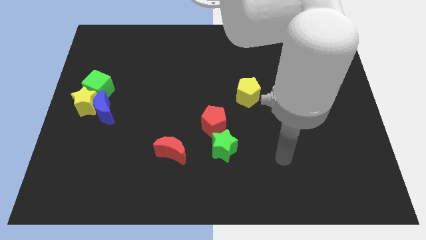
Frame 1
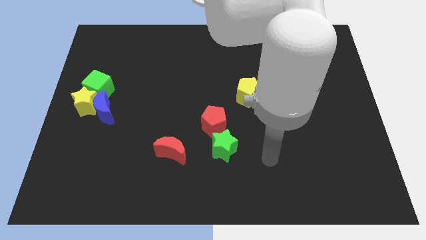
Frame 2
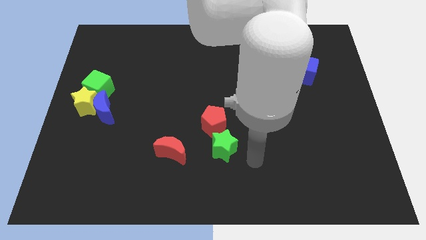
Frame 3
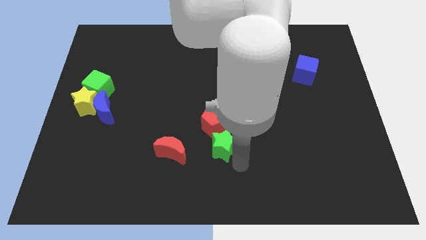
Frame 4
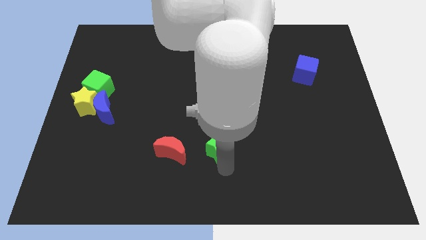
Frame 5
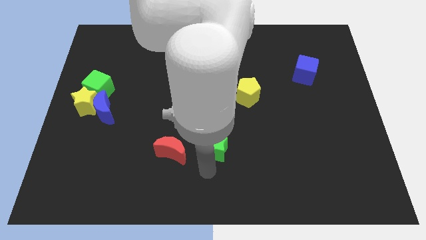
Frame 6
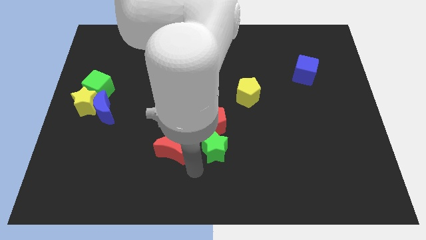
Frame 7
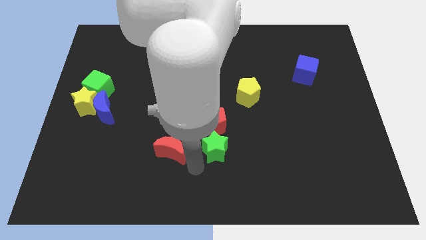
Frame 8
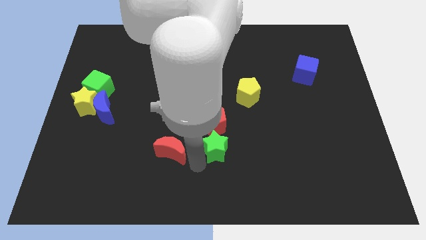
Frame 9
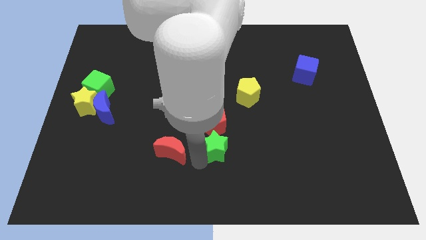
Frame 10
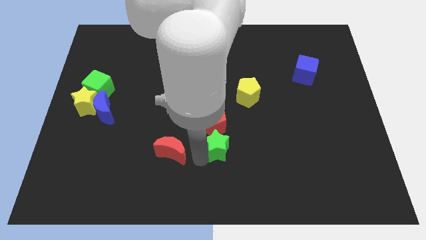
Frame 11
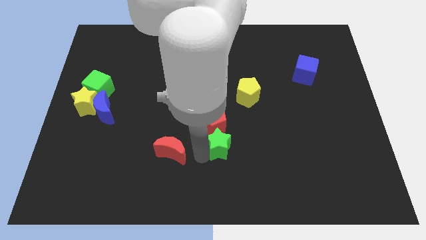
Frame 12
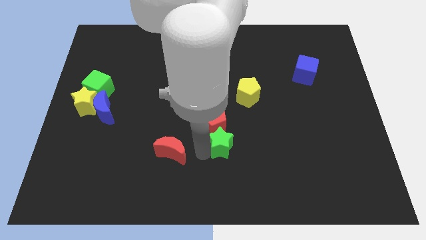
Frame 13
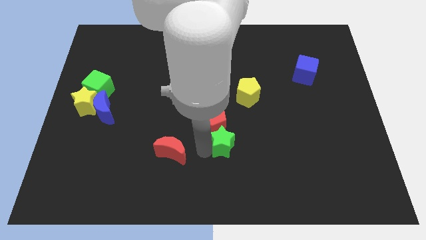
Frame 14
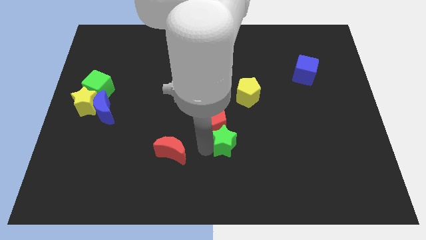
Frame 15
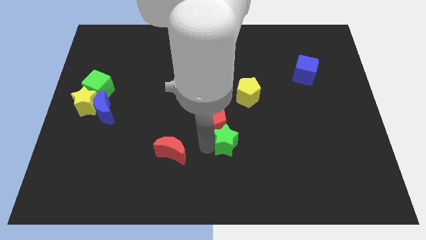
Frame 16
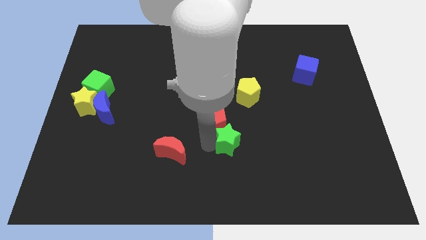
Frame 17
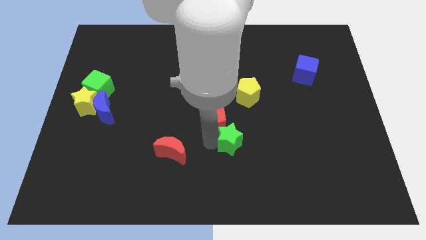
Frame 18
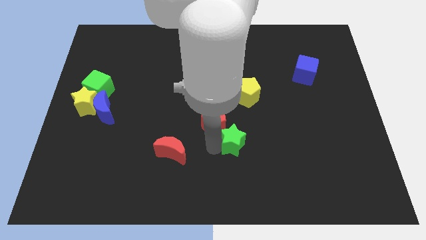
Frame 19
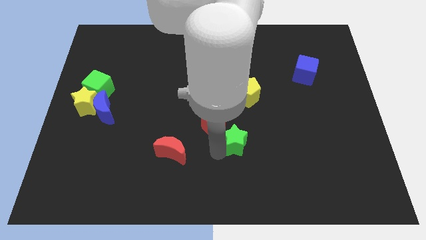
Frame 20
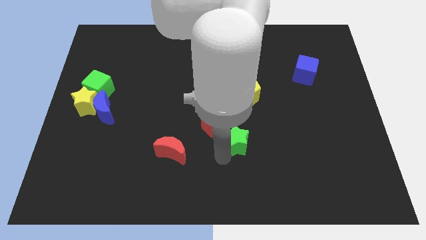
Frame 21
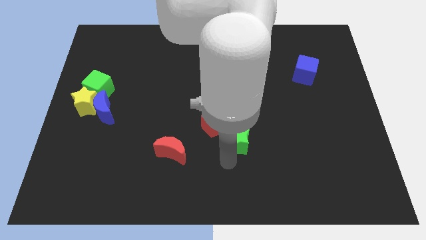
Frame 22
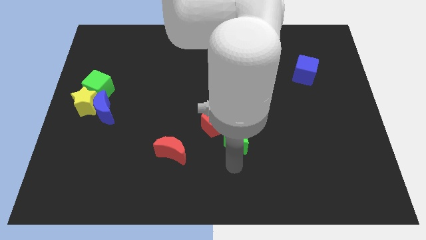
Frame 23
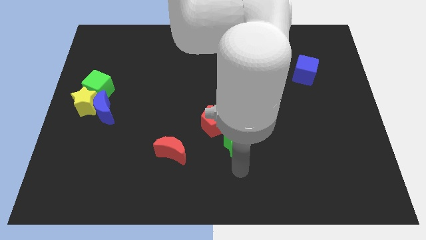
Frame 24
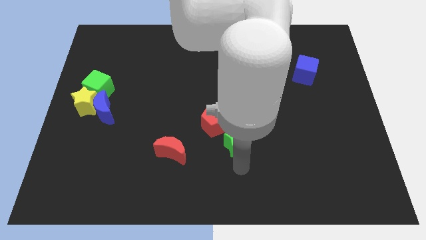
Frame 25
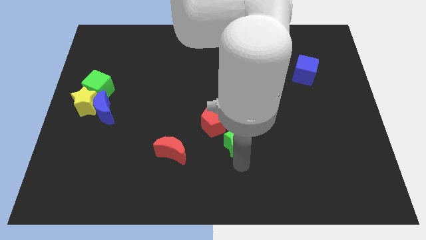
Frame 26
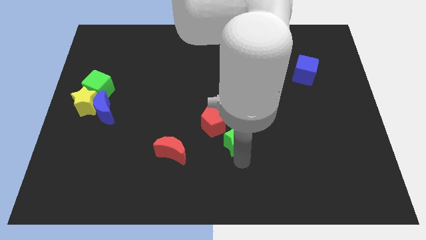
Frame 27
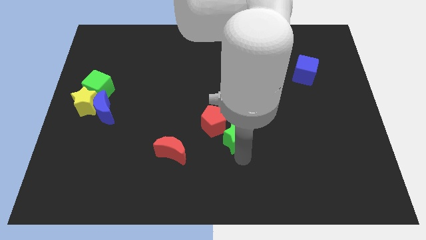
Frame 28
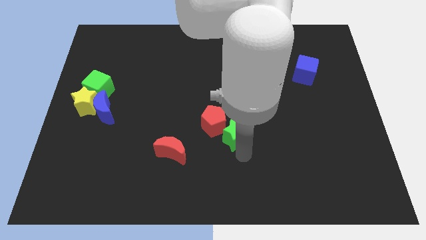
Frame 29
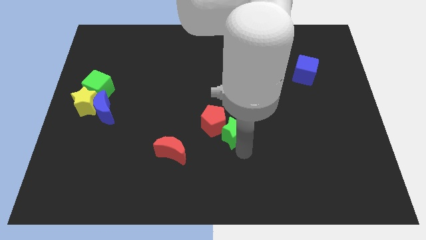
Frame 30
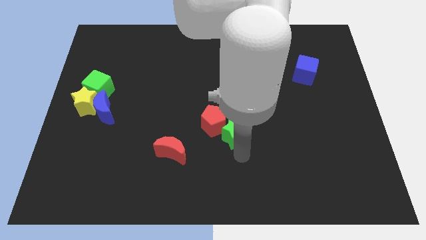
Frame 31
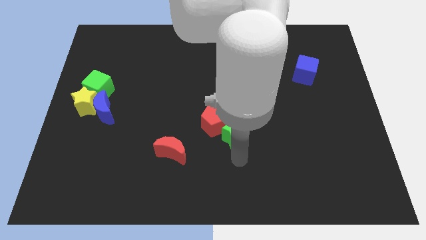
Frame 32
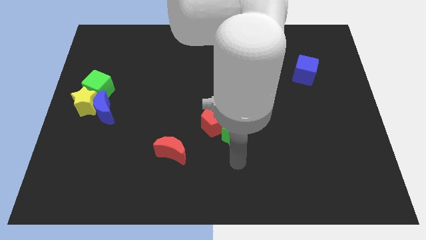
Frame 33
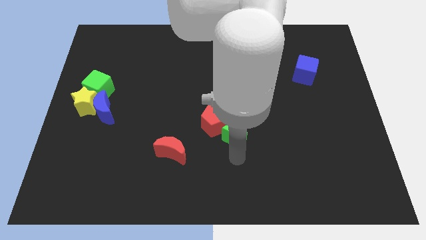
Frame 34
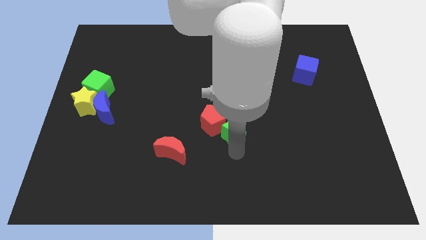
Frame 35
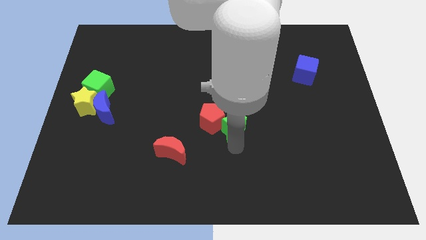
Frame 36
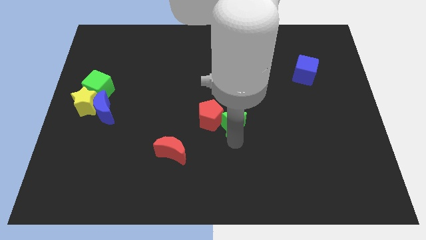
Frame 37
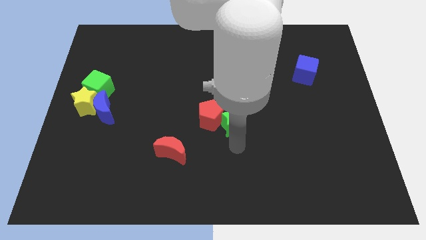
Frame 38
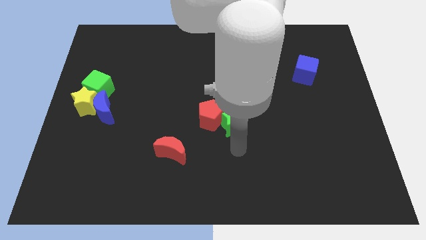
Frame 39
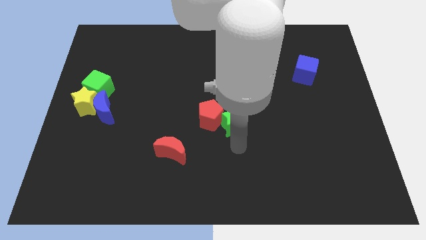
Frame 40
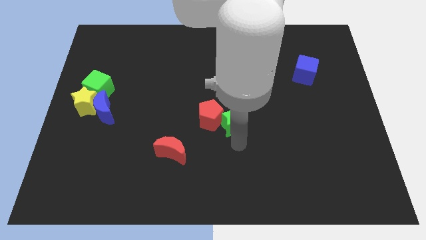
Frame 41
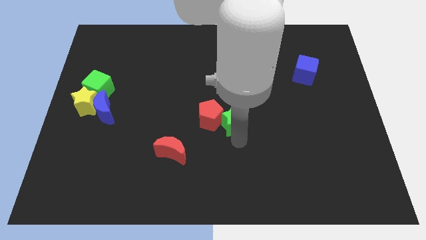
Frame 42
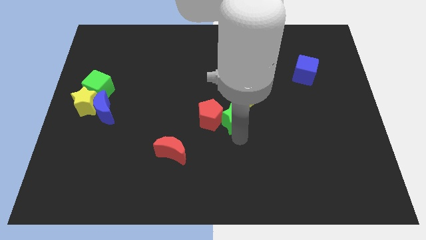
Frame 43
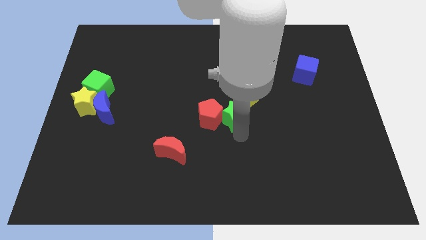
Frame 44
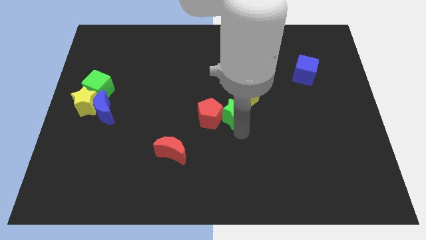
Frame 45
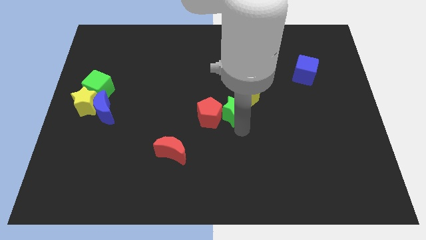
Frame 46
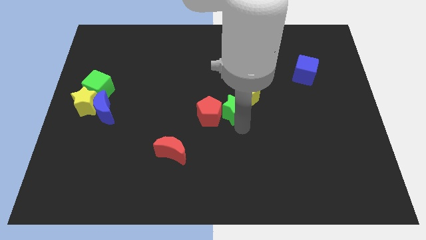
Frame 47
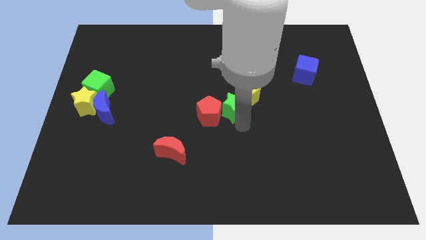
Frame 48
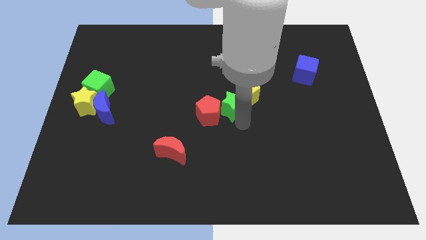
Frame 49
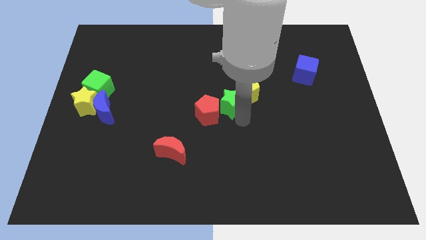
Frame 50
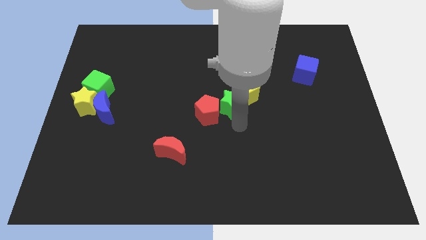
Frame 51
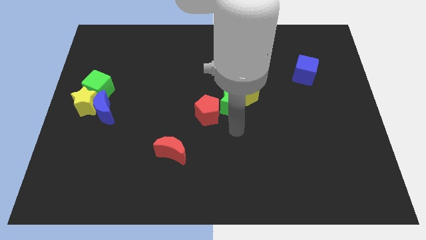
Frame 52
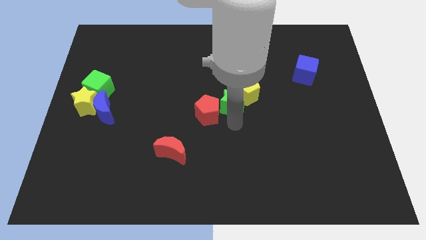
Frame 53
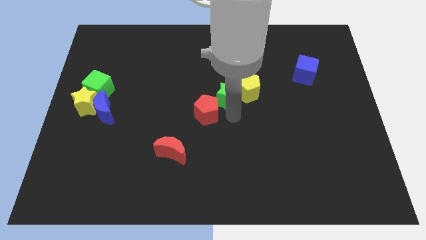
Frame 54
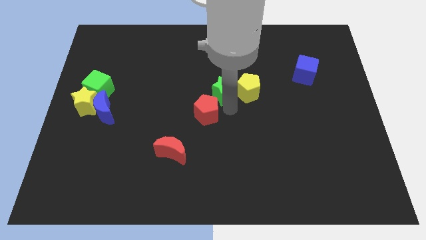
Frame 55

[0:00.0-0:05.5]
push the green star diagonally up and to the left of the yellow pentagon

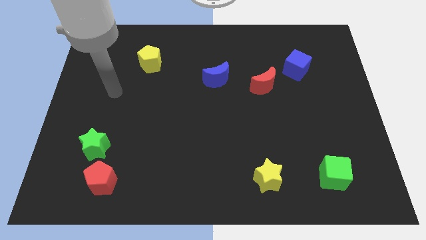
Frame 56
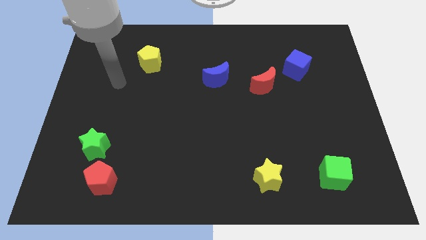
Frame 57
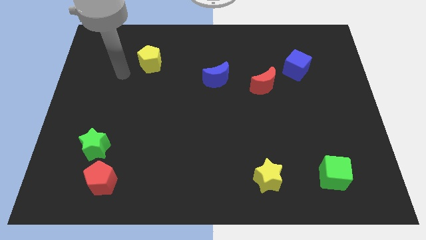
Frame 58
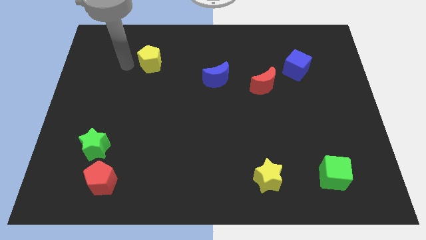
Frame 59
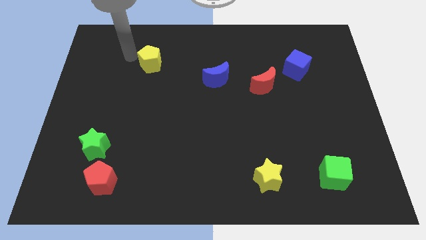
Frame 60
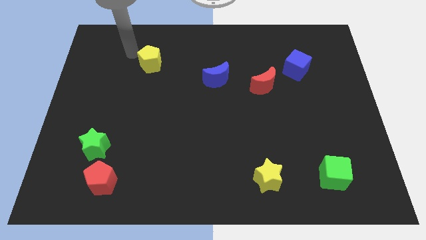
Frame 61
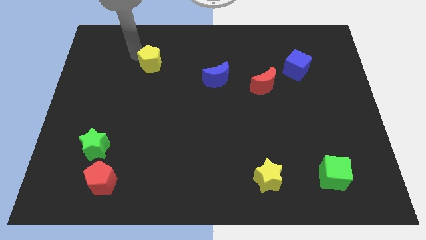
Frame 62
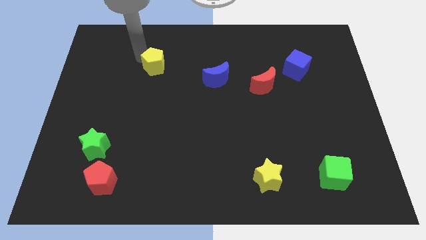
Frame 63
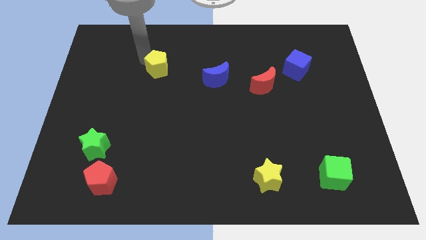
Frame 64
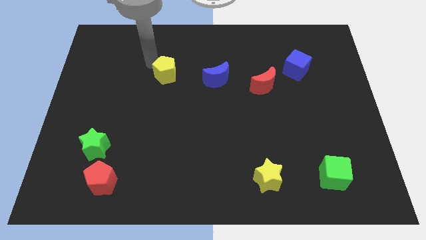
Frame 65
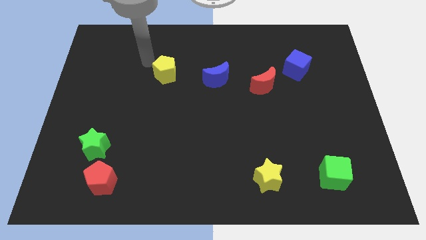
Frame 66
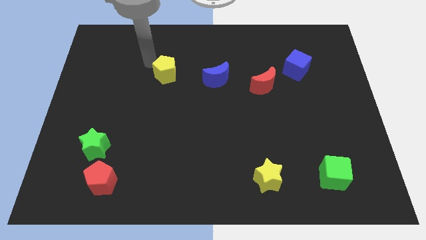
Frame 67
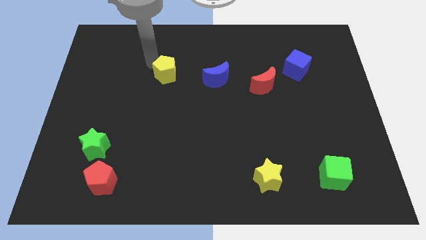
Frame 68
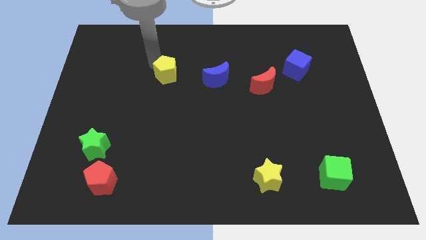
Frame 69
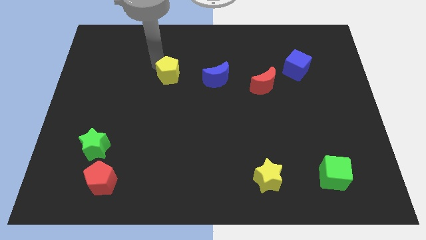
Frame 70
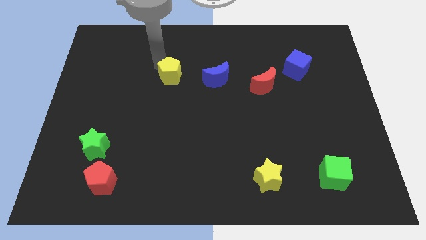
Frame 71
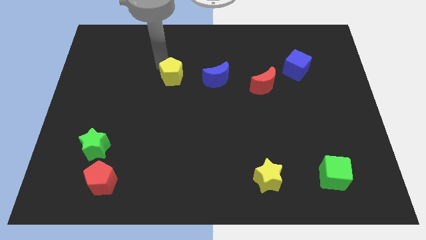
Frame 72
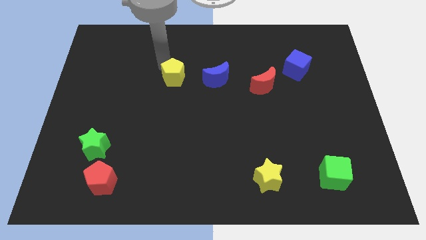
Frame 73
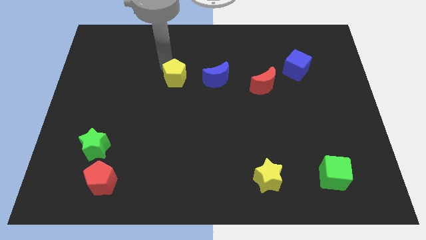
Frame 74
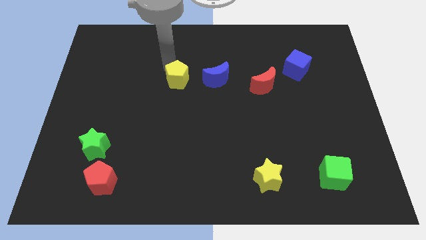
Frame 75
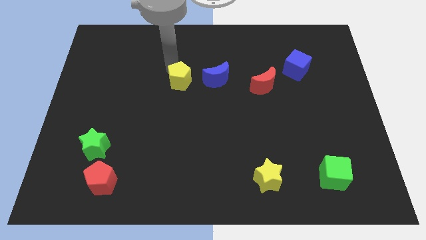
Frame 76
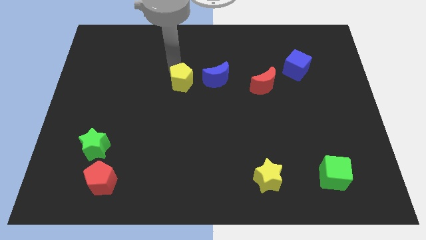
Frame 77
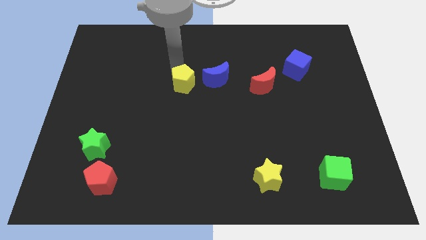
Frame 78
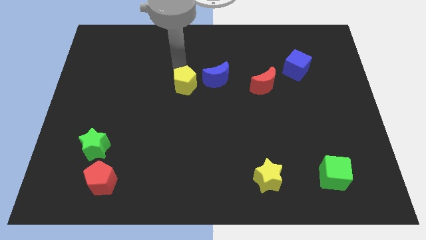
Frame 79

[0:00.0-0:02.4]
slide the yellow pentagon to the bottom left side of the blue moon

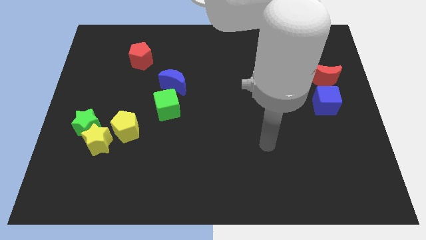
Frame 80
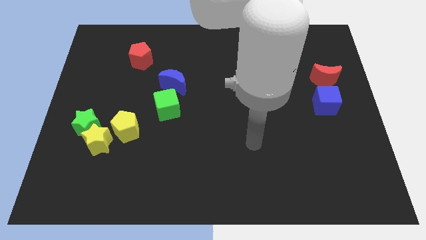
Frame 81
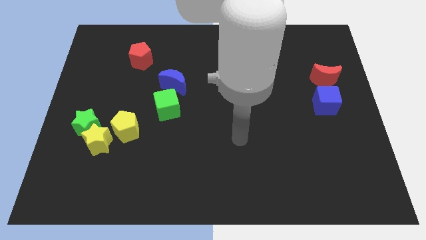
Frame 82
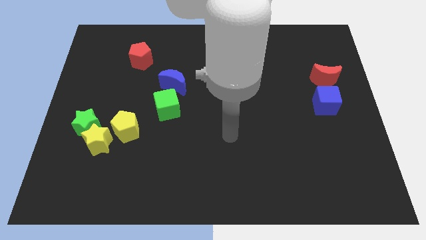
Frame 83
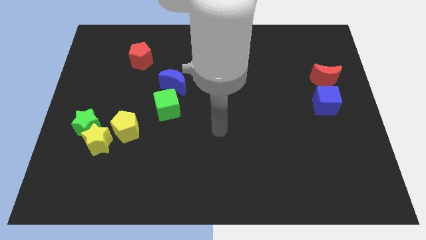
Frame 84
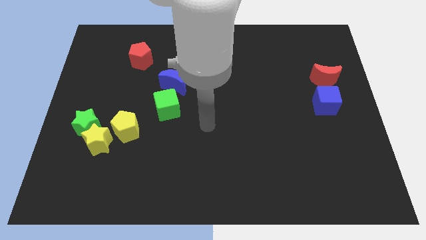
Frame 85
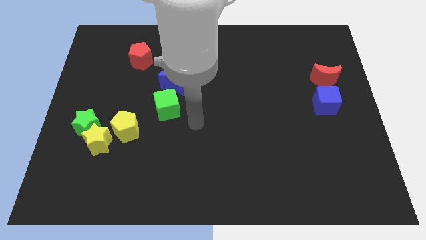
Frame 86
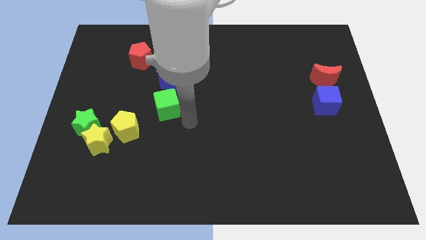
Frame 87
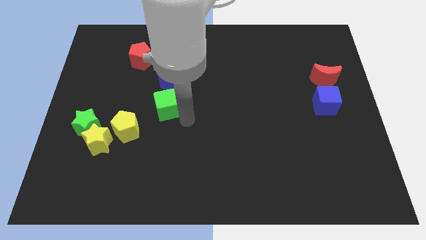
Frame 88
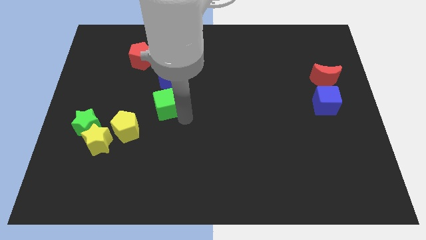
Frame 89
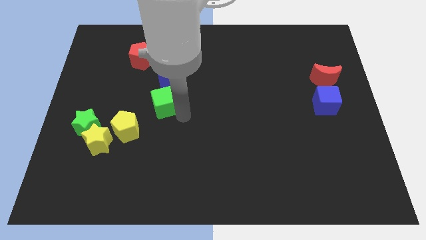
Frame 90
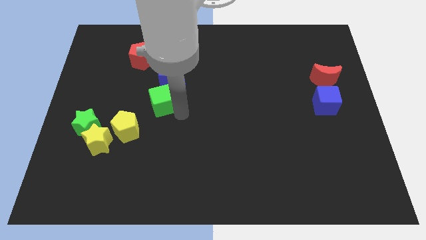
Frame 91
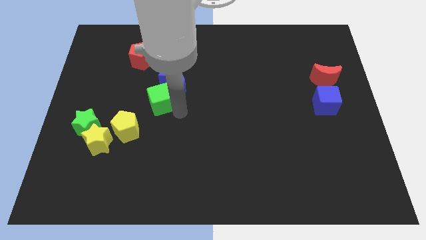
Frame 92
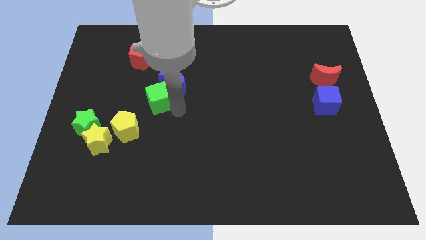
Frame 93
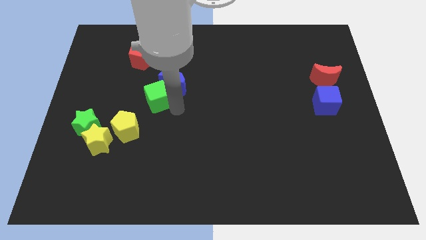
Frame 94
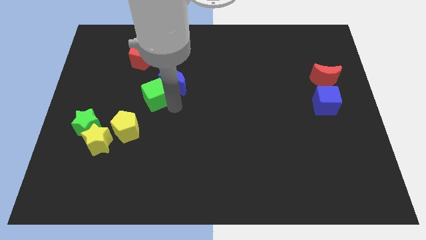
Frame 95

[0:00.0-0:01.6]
slide the green cube just left of the blue moon
